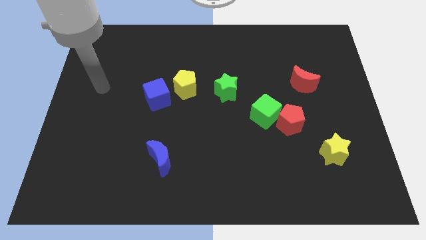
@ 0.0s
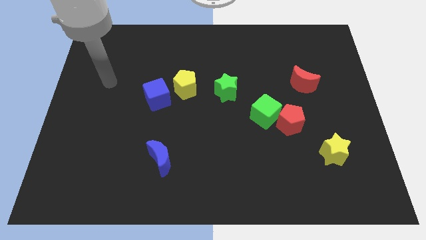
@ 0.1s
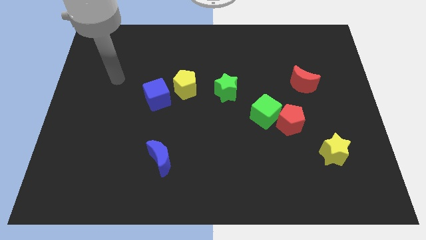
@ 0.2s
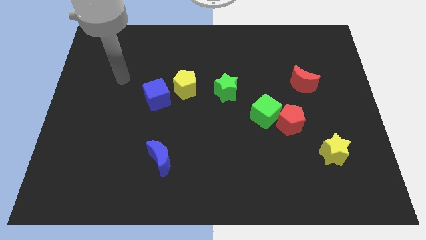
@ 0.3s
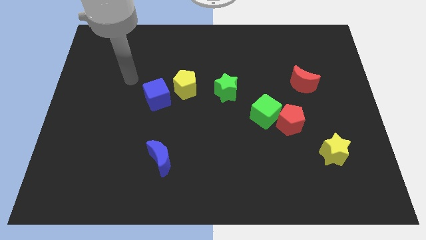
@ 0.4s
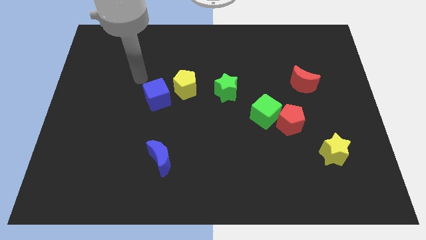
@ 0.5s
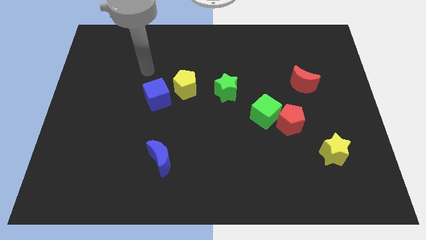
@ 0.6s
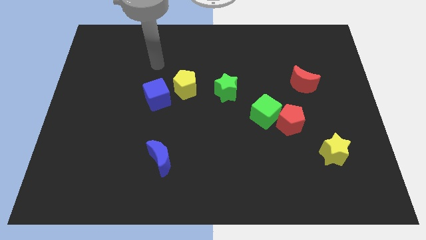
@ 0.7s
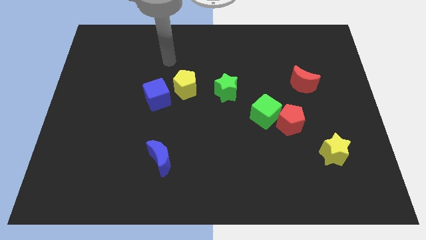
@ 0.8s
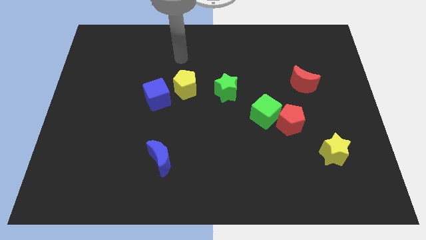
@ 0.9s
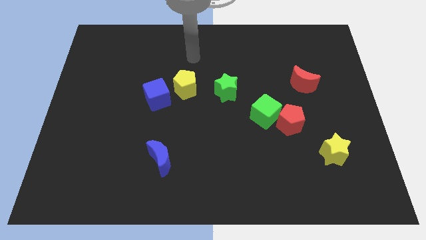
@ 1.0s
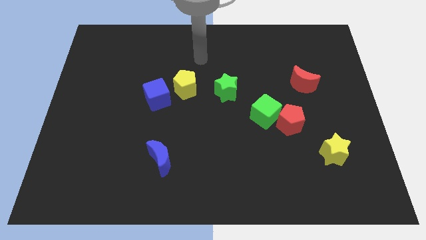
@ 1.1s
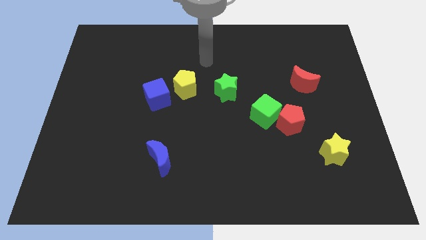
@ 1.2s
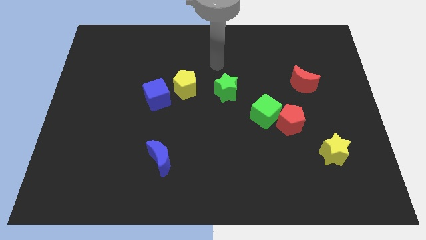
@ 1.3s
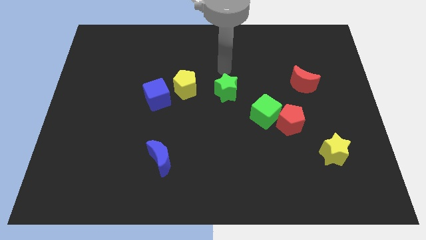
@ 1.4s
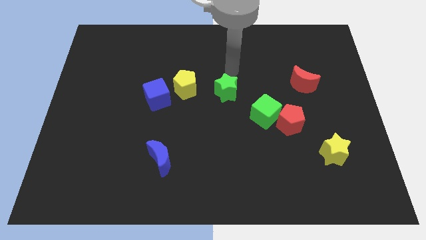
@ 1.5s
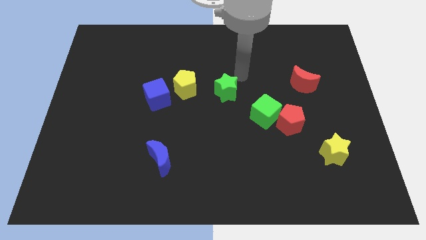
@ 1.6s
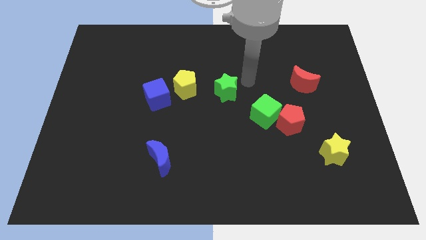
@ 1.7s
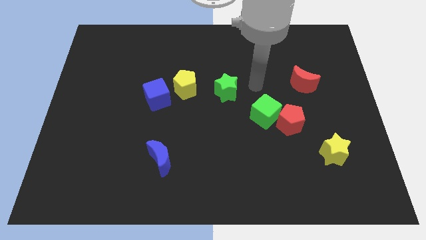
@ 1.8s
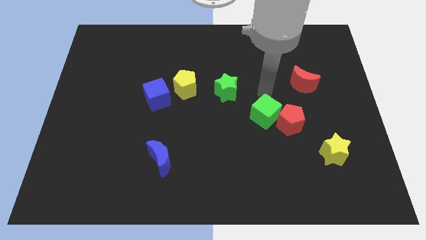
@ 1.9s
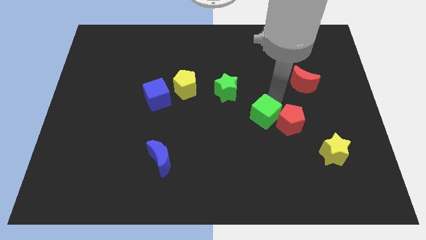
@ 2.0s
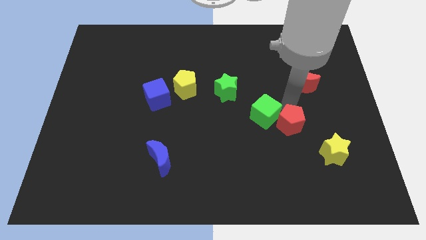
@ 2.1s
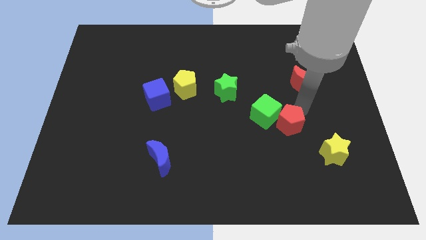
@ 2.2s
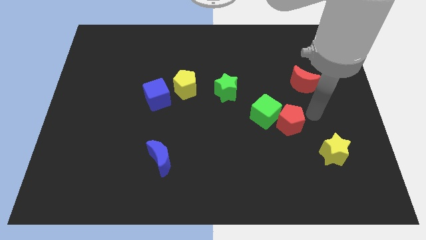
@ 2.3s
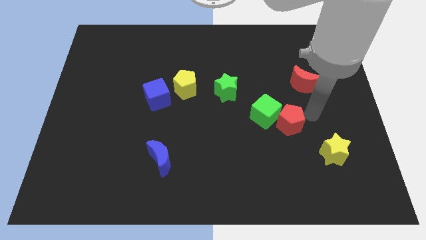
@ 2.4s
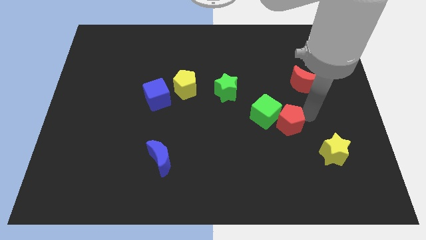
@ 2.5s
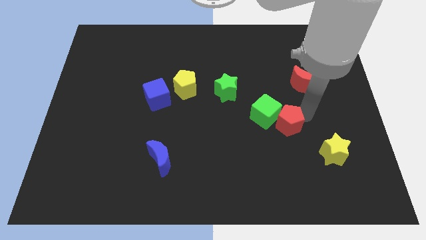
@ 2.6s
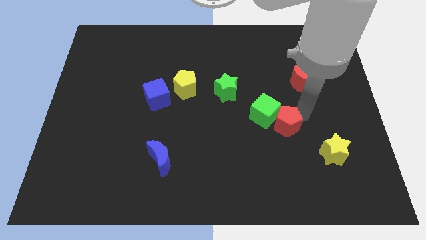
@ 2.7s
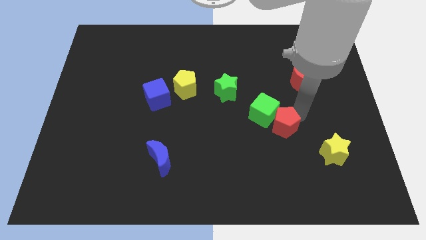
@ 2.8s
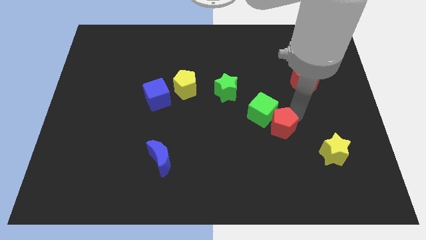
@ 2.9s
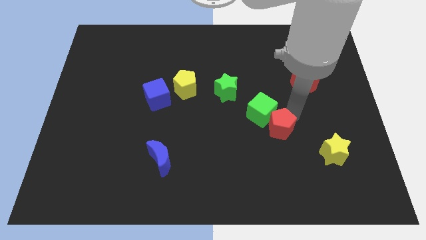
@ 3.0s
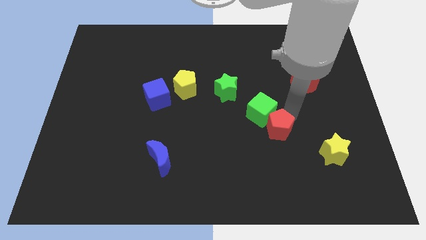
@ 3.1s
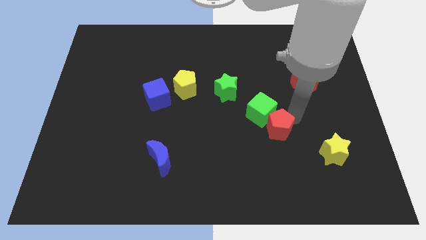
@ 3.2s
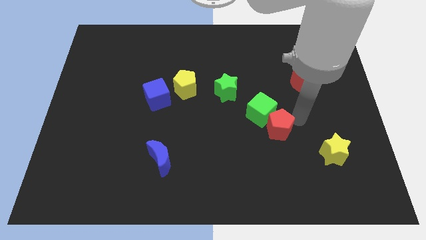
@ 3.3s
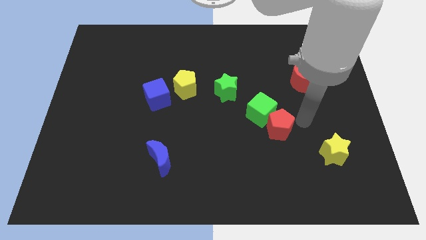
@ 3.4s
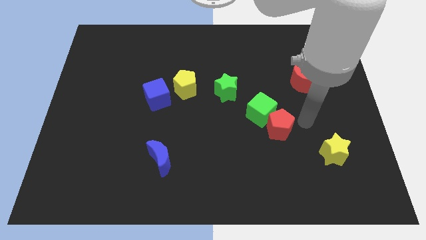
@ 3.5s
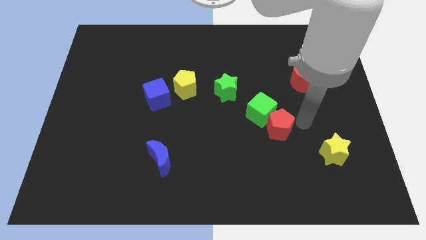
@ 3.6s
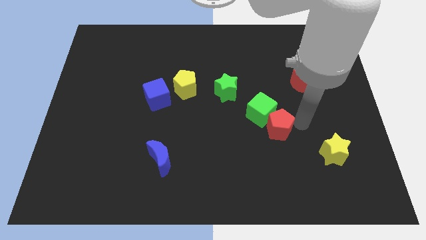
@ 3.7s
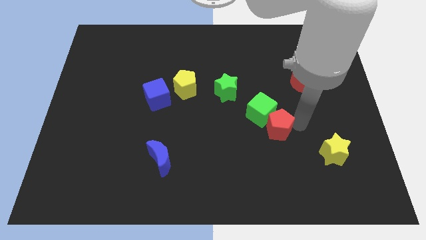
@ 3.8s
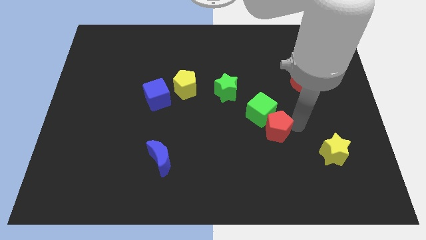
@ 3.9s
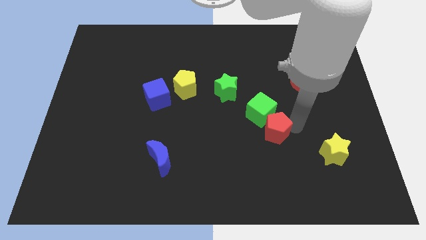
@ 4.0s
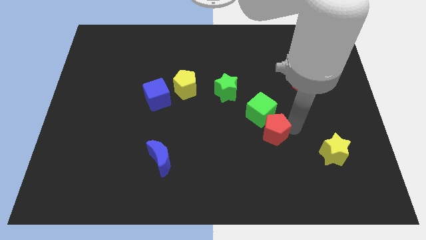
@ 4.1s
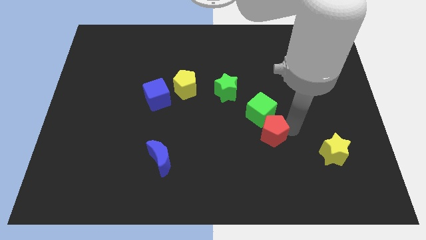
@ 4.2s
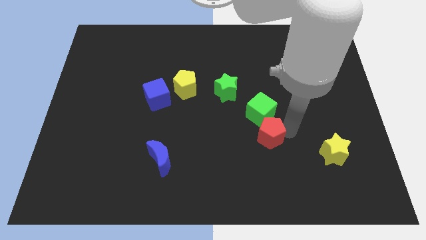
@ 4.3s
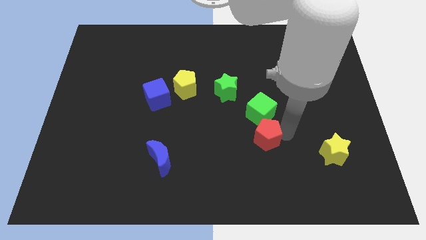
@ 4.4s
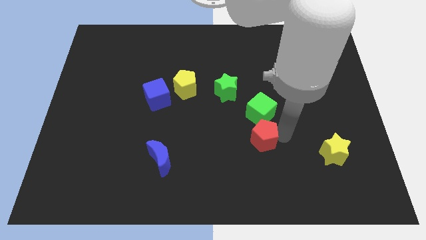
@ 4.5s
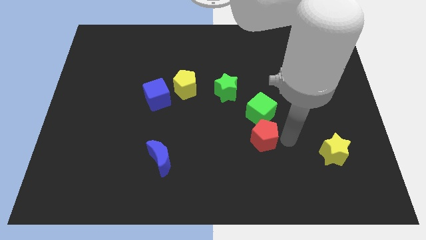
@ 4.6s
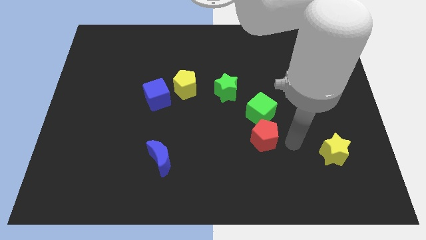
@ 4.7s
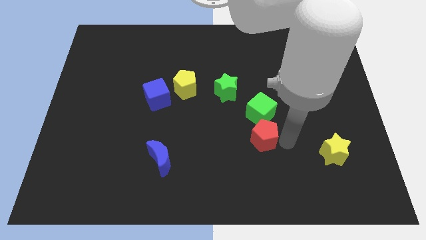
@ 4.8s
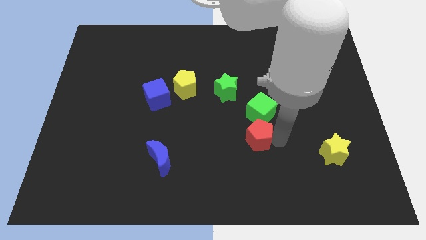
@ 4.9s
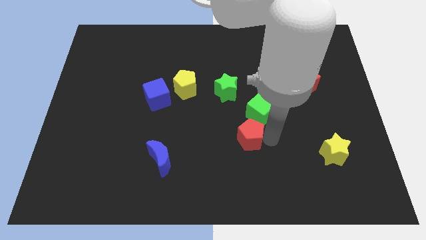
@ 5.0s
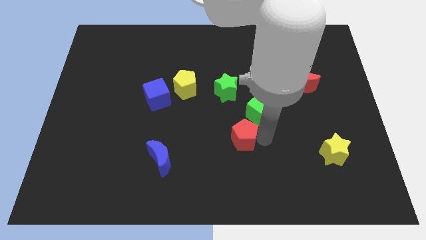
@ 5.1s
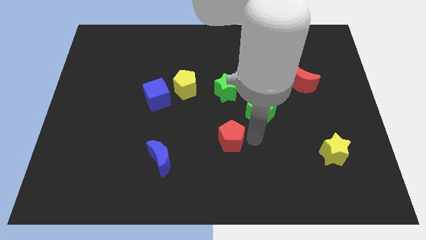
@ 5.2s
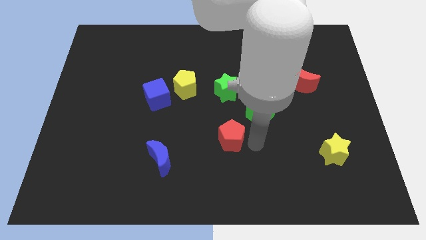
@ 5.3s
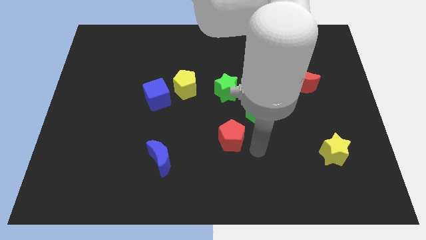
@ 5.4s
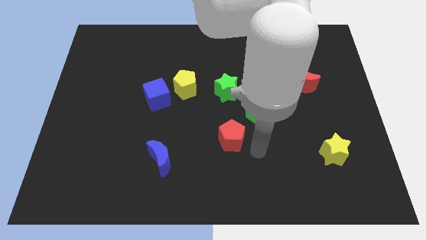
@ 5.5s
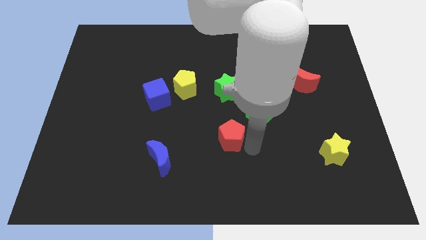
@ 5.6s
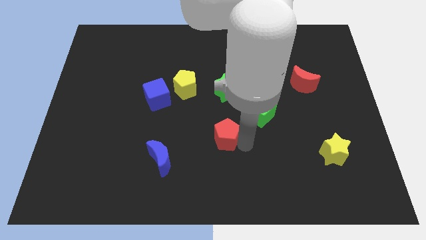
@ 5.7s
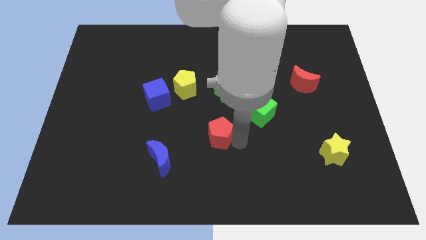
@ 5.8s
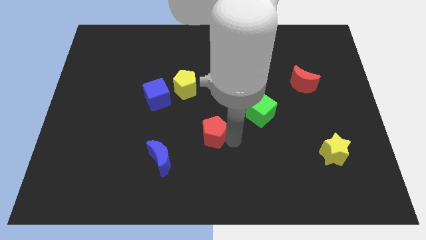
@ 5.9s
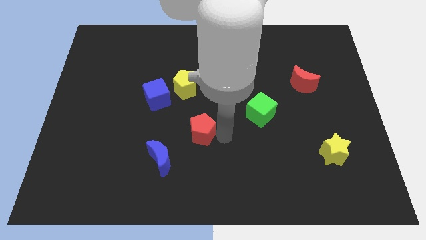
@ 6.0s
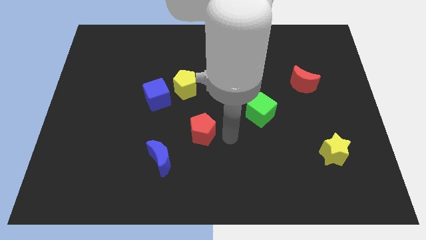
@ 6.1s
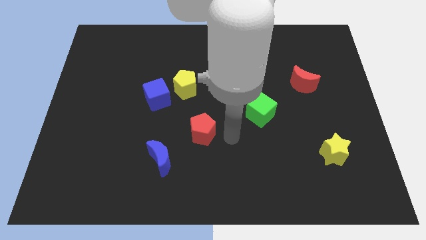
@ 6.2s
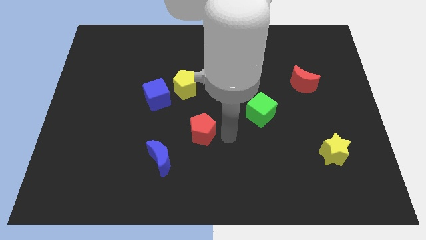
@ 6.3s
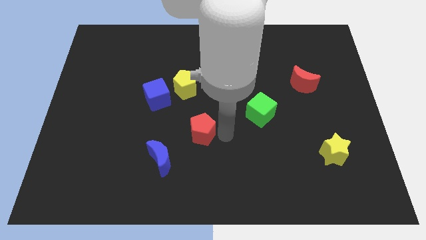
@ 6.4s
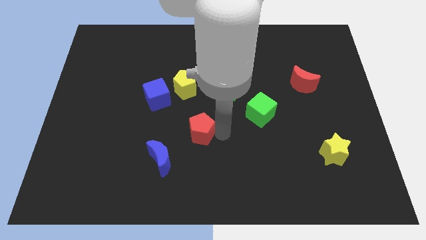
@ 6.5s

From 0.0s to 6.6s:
move the red pentagon to the left

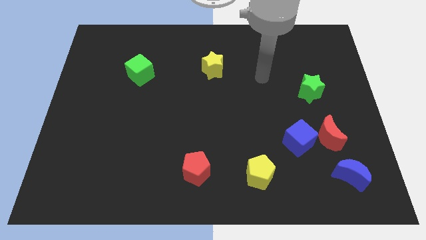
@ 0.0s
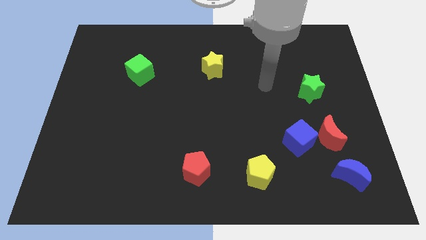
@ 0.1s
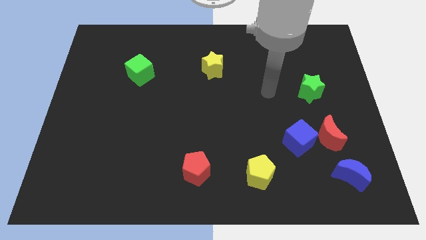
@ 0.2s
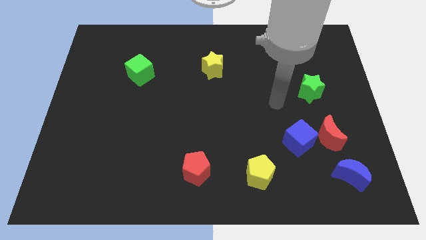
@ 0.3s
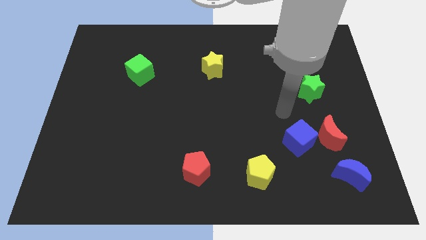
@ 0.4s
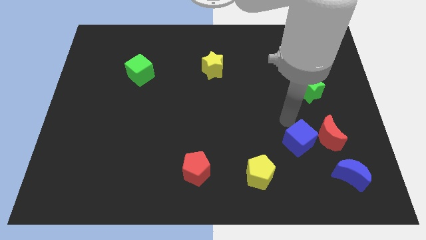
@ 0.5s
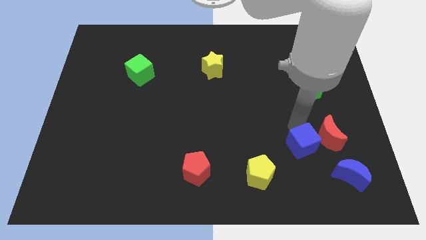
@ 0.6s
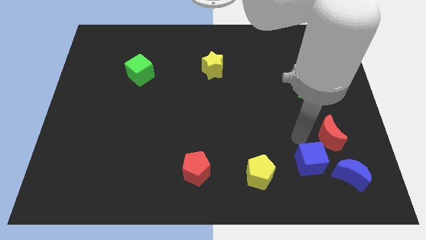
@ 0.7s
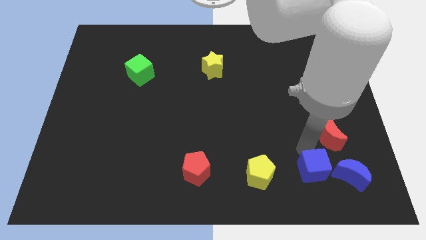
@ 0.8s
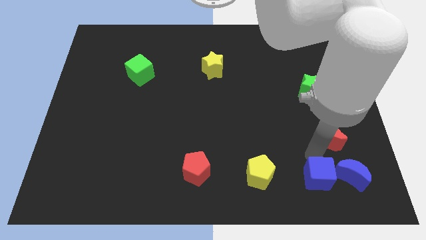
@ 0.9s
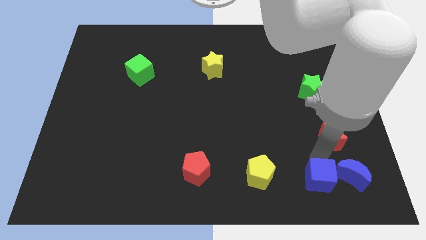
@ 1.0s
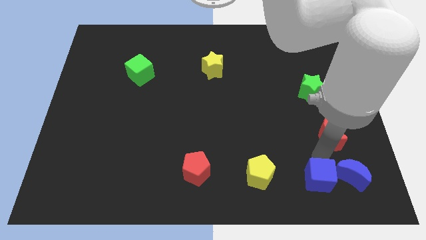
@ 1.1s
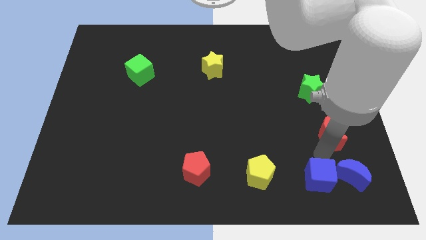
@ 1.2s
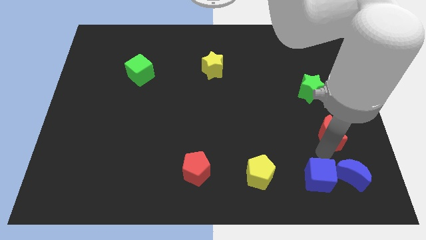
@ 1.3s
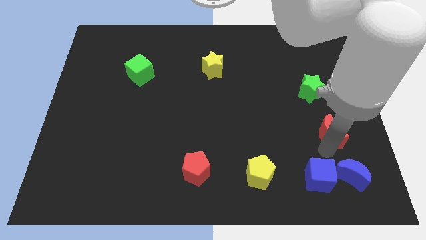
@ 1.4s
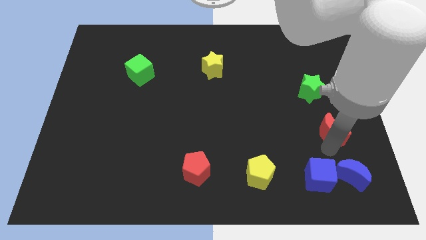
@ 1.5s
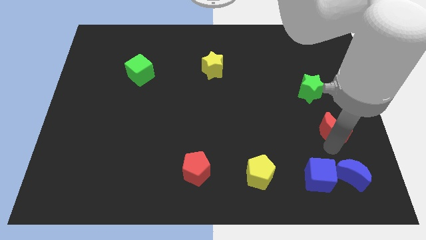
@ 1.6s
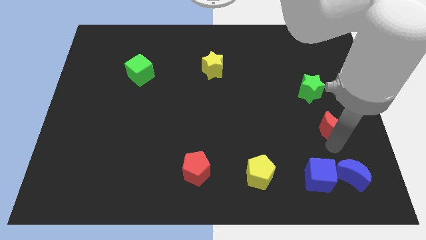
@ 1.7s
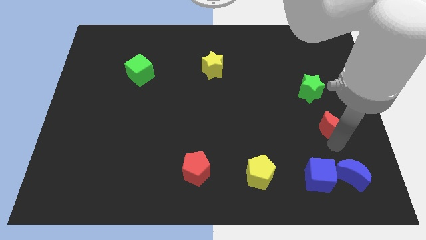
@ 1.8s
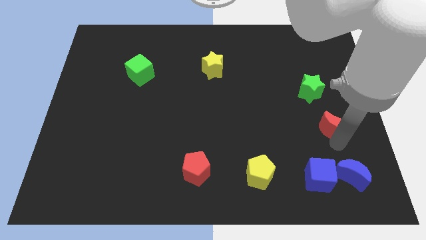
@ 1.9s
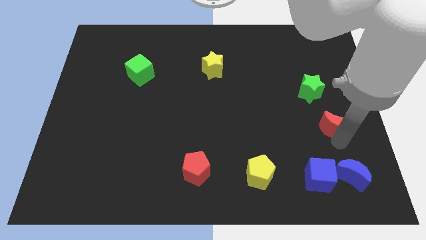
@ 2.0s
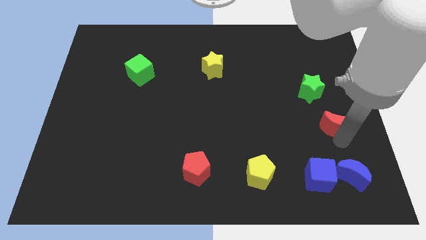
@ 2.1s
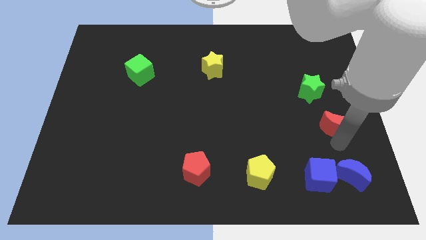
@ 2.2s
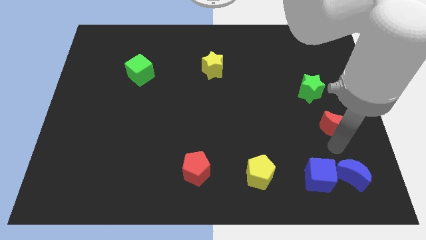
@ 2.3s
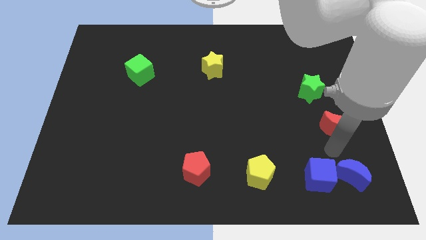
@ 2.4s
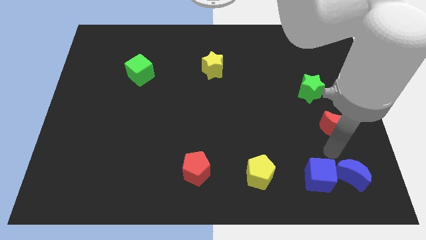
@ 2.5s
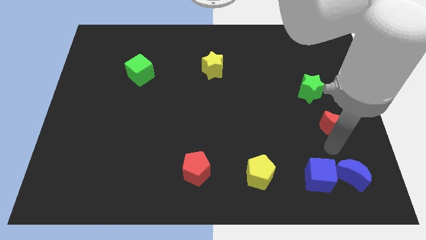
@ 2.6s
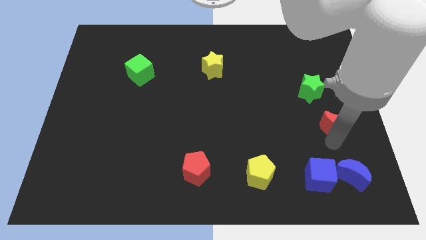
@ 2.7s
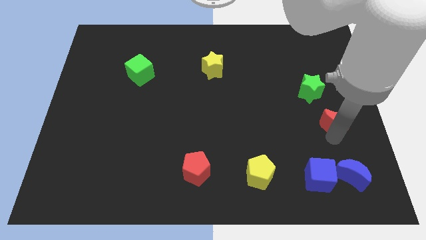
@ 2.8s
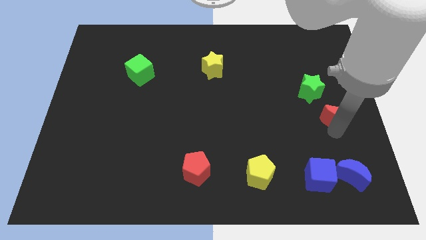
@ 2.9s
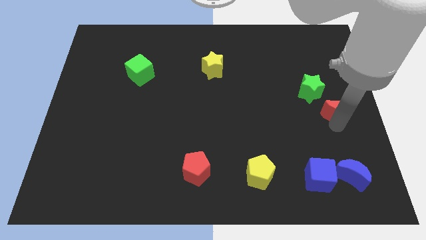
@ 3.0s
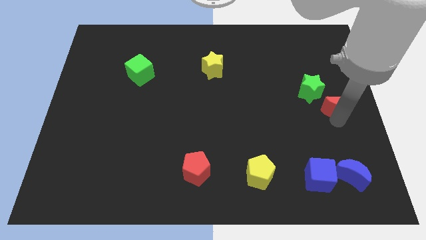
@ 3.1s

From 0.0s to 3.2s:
move the red moon upwards somewhat
